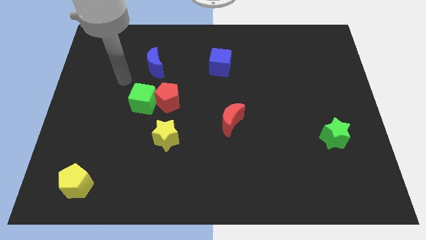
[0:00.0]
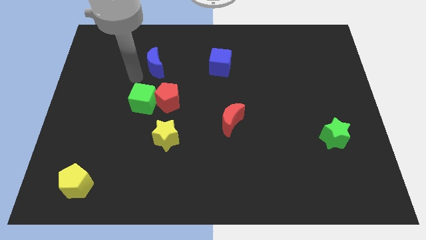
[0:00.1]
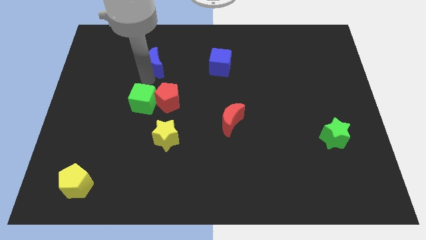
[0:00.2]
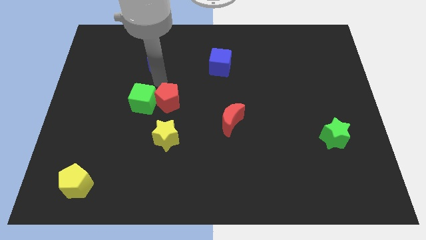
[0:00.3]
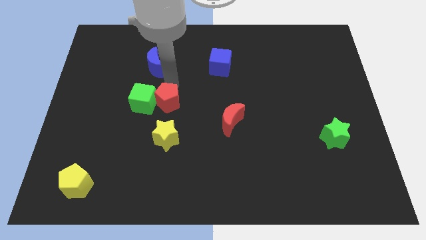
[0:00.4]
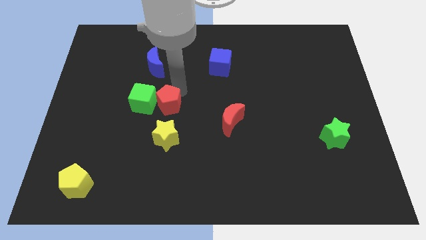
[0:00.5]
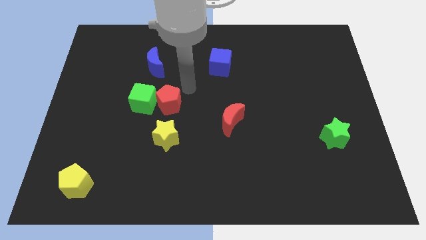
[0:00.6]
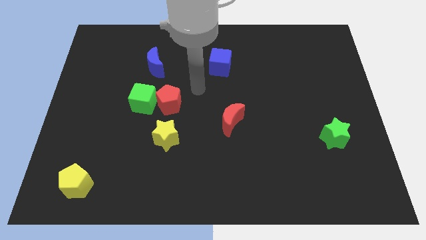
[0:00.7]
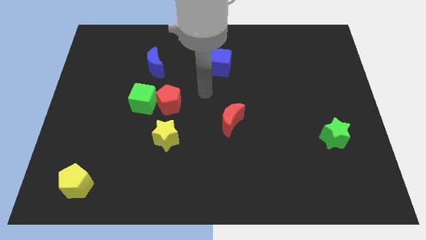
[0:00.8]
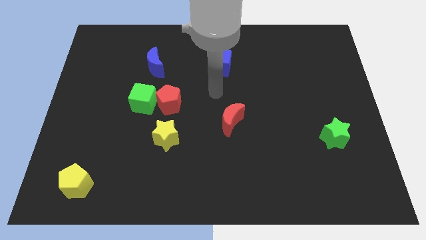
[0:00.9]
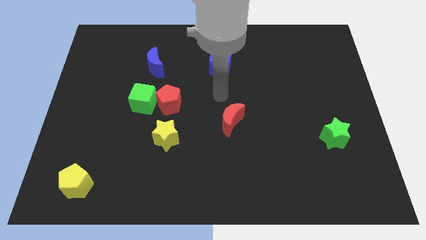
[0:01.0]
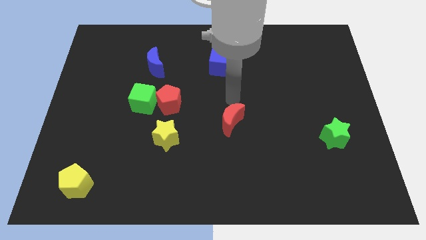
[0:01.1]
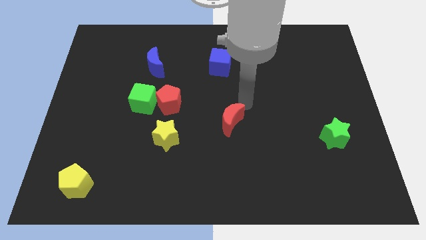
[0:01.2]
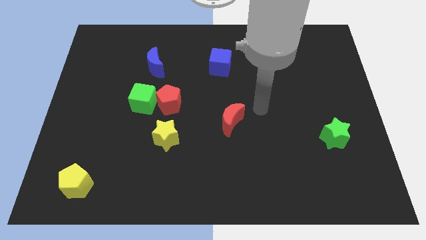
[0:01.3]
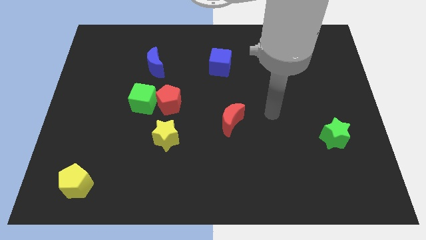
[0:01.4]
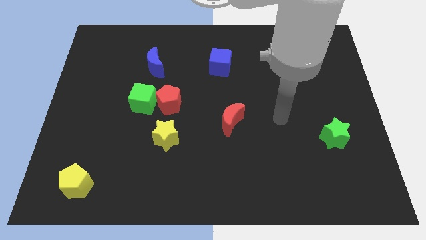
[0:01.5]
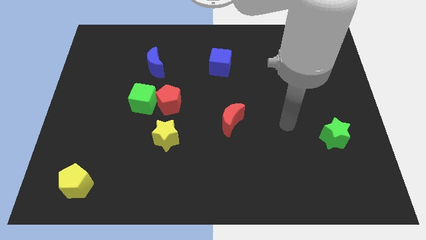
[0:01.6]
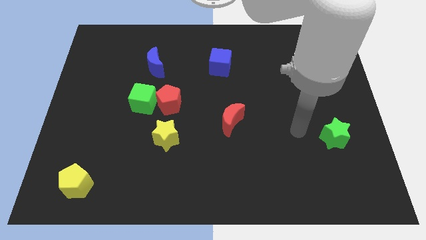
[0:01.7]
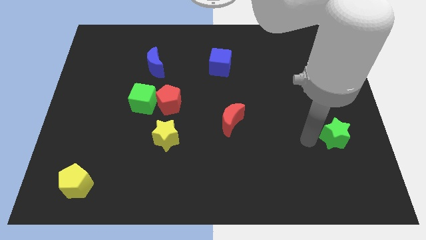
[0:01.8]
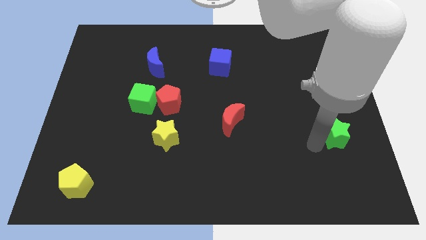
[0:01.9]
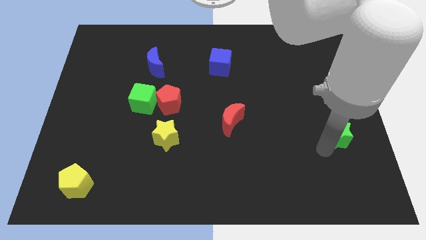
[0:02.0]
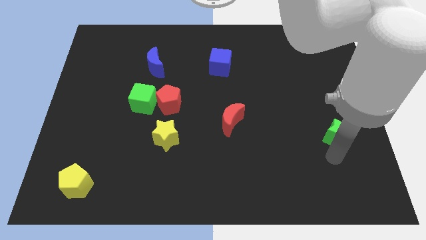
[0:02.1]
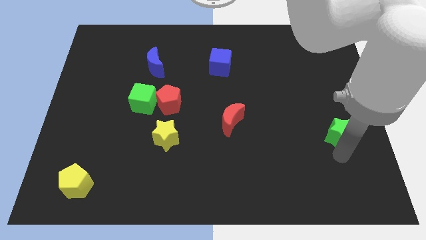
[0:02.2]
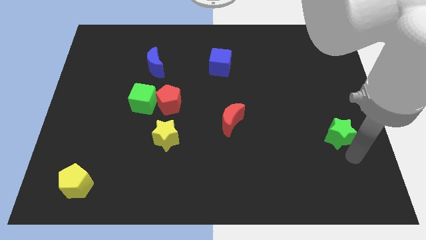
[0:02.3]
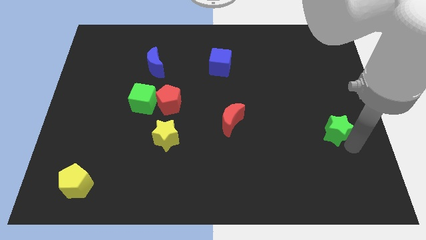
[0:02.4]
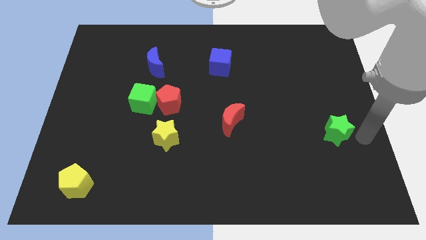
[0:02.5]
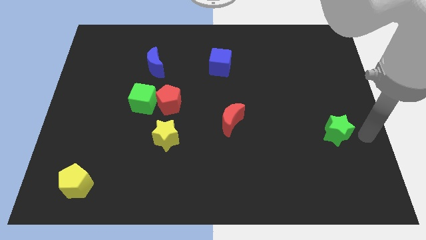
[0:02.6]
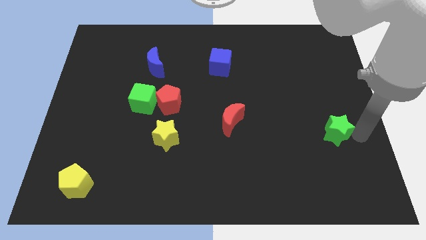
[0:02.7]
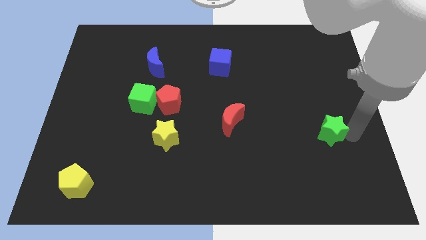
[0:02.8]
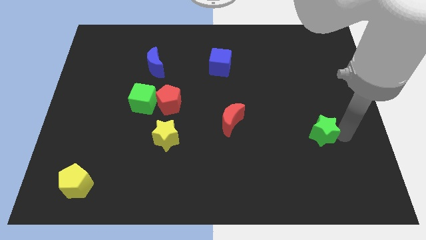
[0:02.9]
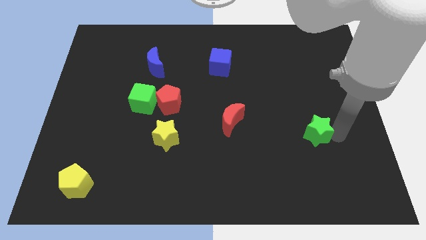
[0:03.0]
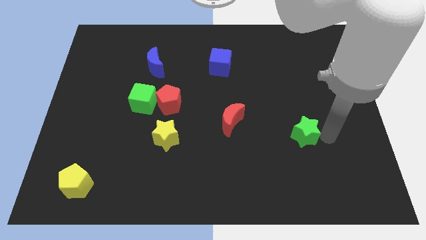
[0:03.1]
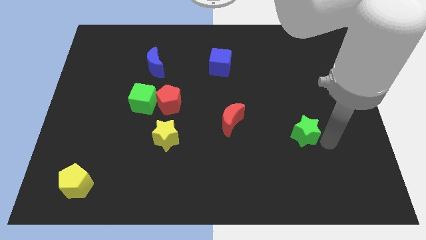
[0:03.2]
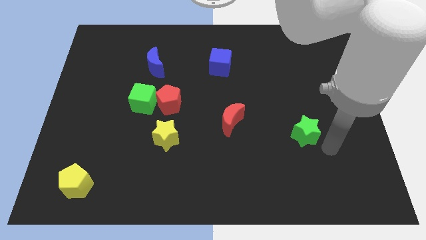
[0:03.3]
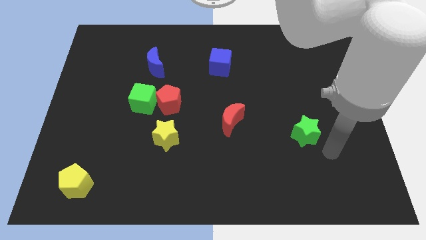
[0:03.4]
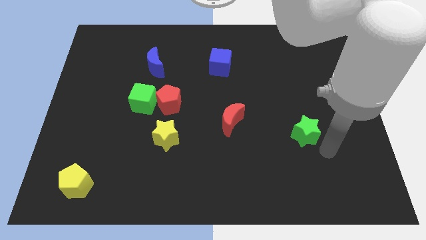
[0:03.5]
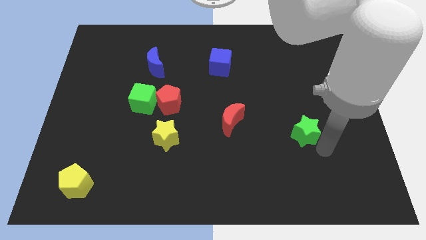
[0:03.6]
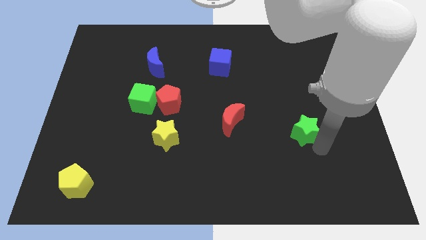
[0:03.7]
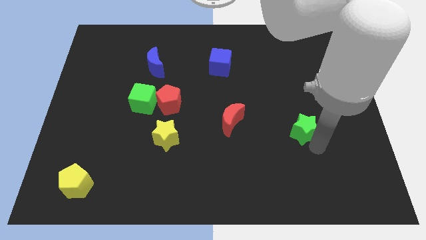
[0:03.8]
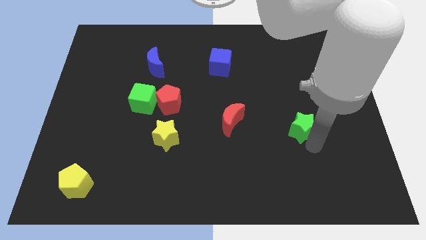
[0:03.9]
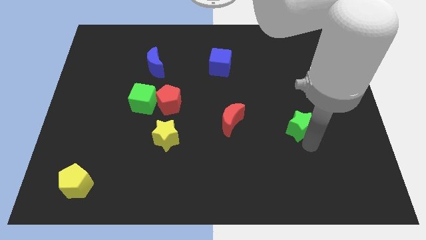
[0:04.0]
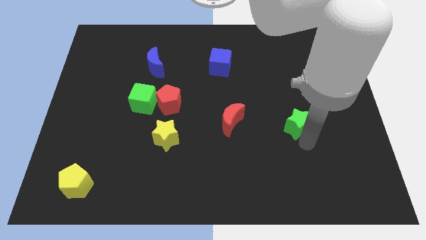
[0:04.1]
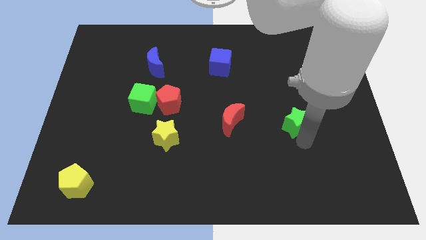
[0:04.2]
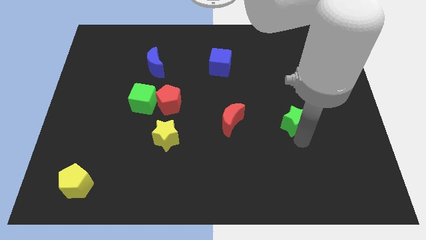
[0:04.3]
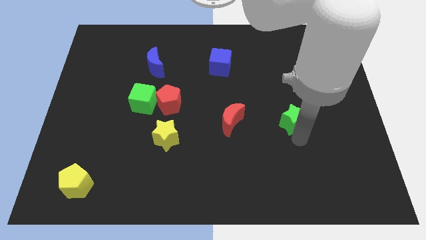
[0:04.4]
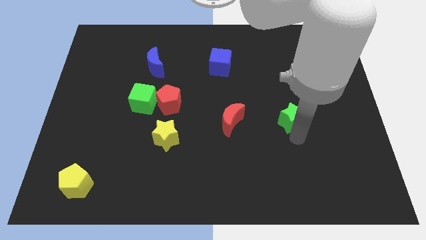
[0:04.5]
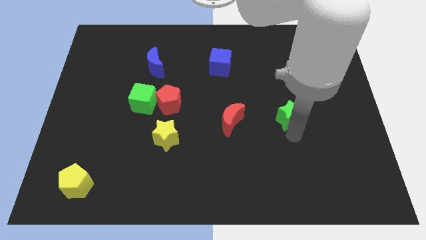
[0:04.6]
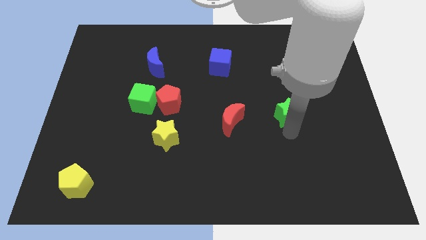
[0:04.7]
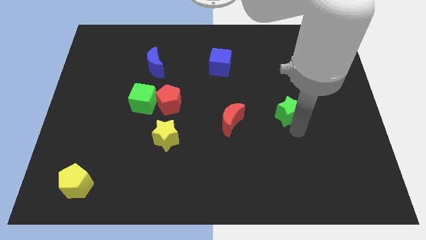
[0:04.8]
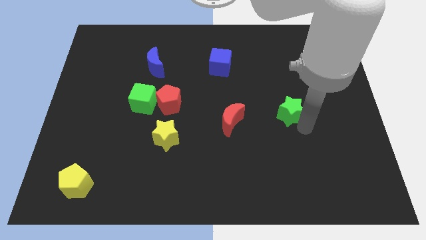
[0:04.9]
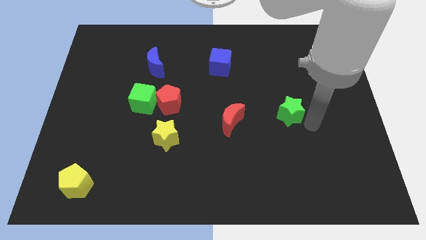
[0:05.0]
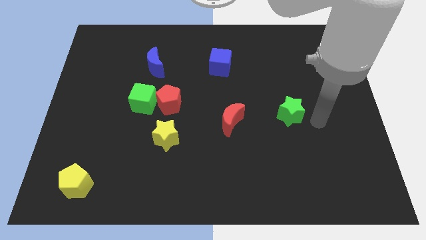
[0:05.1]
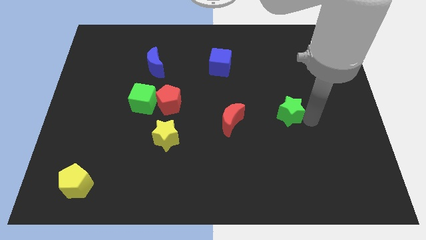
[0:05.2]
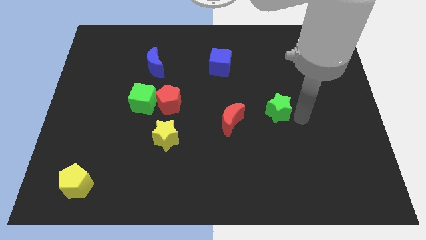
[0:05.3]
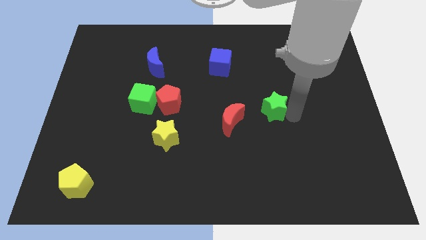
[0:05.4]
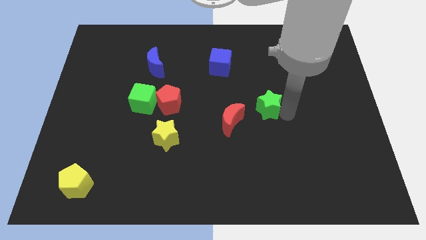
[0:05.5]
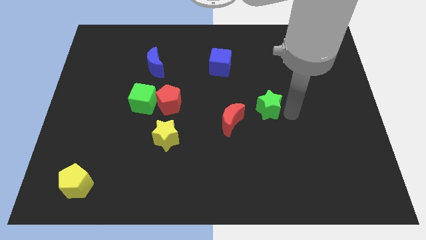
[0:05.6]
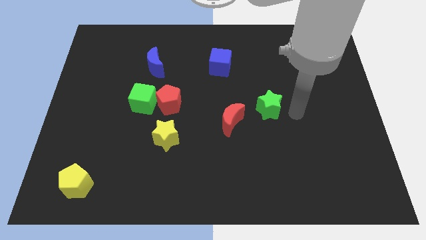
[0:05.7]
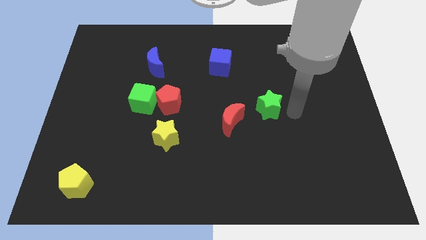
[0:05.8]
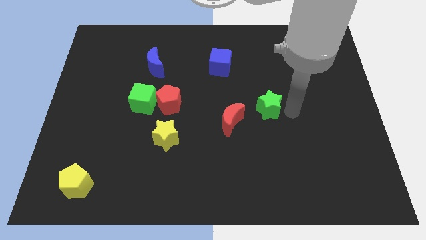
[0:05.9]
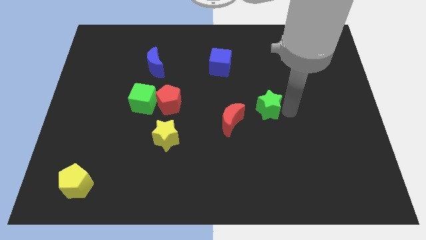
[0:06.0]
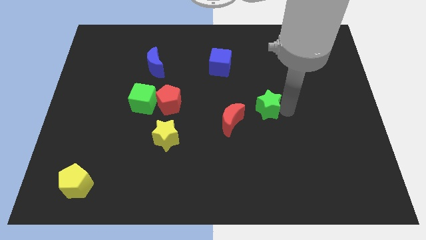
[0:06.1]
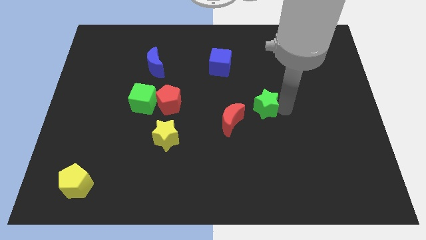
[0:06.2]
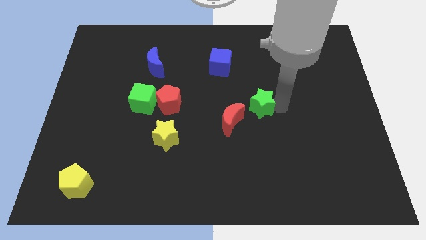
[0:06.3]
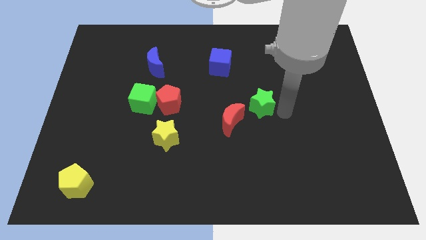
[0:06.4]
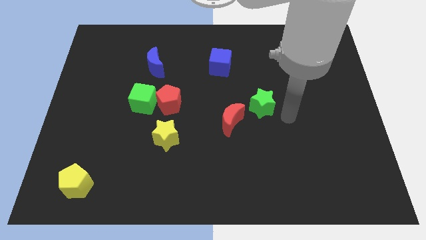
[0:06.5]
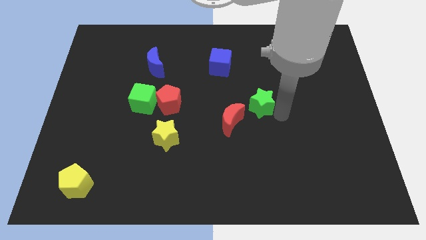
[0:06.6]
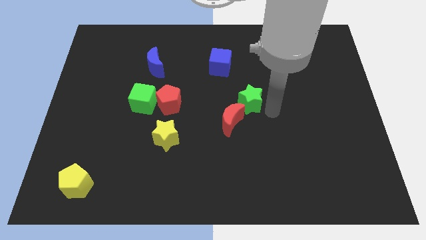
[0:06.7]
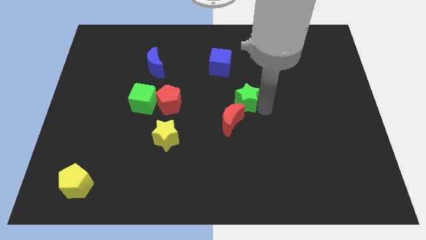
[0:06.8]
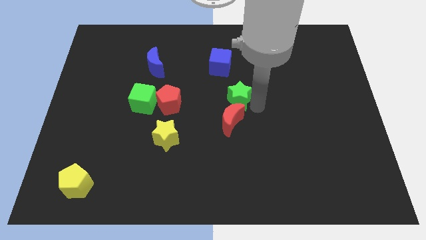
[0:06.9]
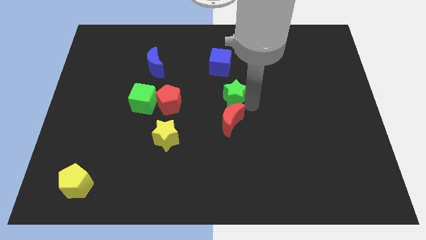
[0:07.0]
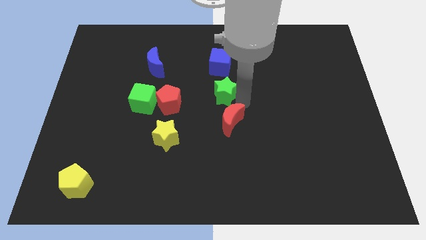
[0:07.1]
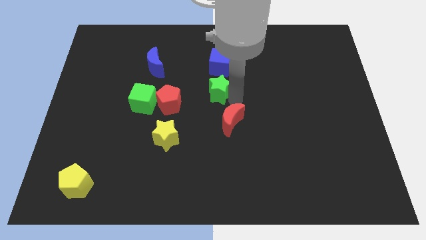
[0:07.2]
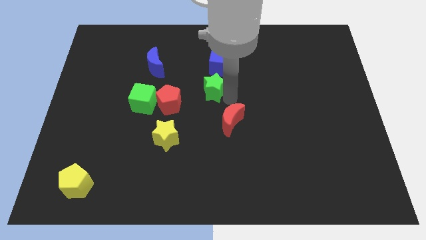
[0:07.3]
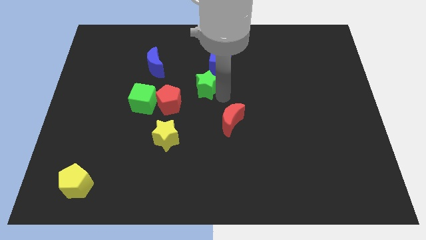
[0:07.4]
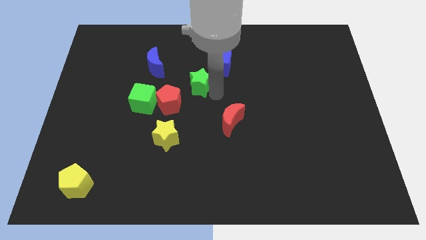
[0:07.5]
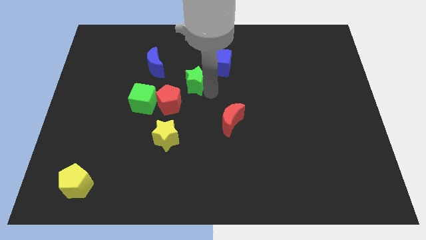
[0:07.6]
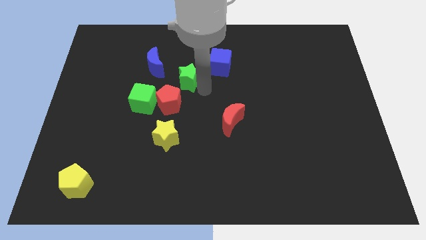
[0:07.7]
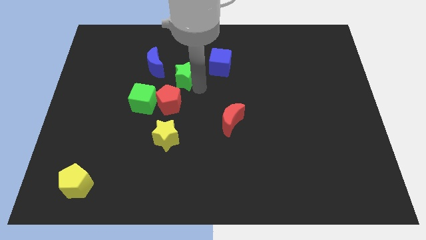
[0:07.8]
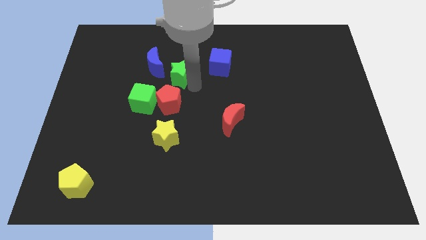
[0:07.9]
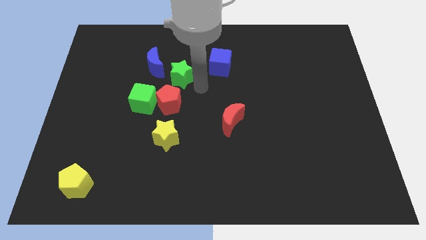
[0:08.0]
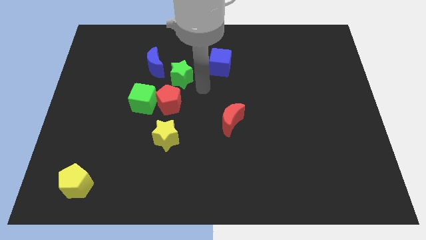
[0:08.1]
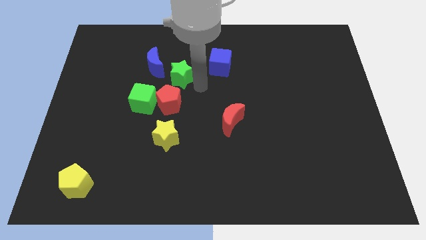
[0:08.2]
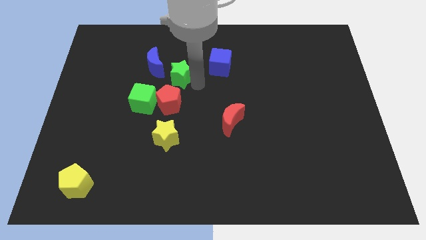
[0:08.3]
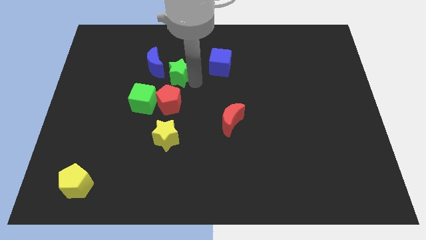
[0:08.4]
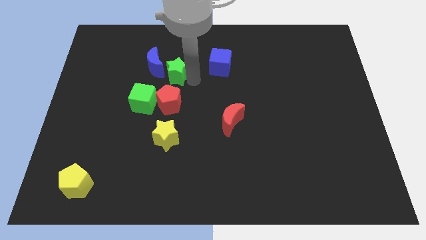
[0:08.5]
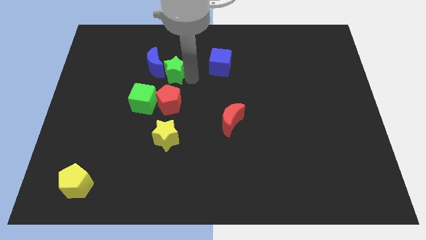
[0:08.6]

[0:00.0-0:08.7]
slide the green star next to the blue moon
